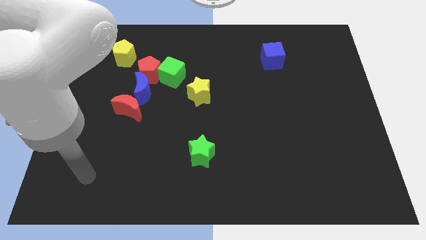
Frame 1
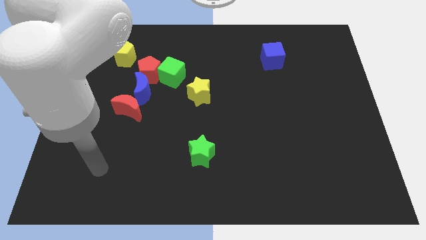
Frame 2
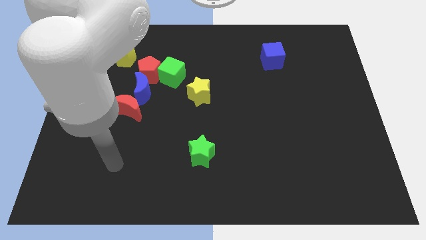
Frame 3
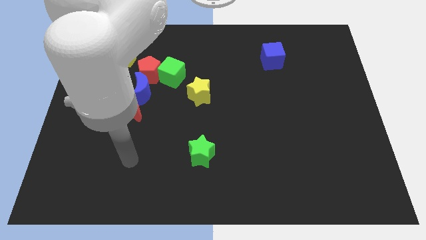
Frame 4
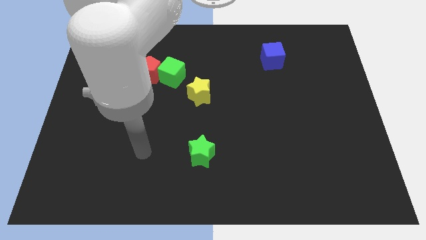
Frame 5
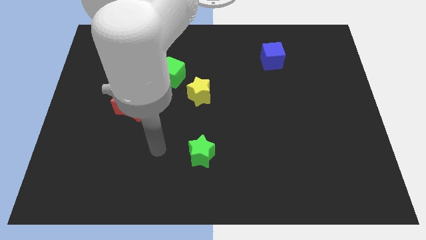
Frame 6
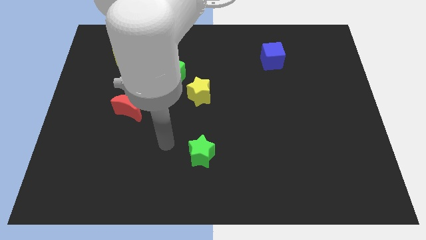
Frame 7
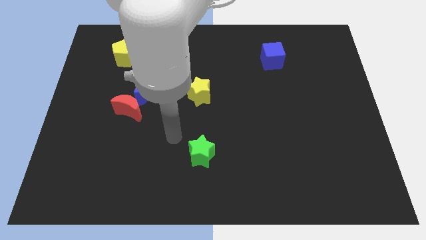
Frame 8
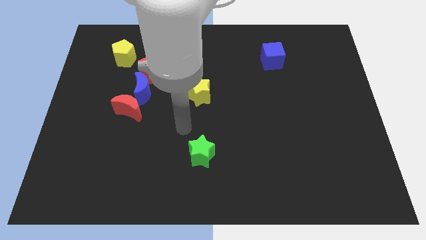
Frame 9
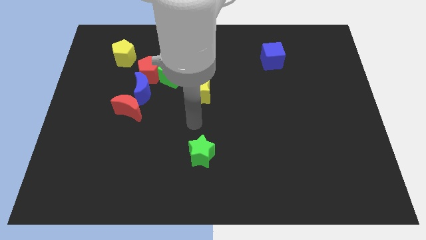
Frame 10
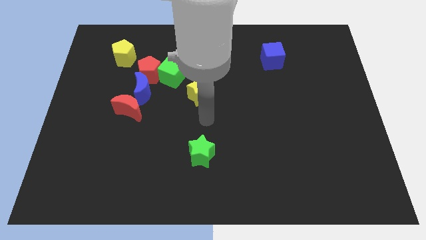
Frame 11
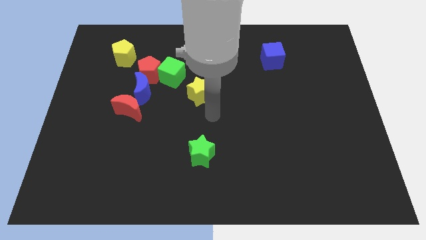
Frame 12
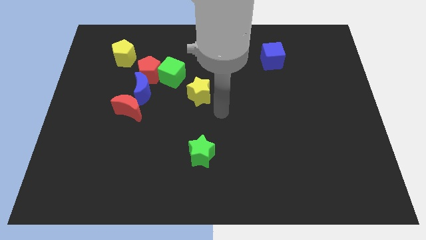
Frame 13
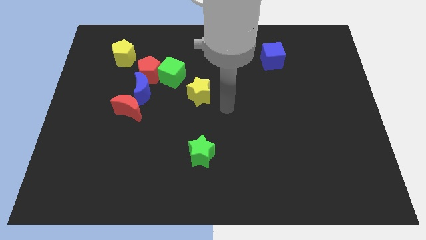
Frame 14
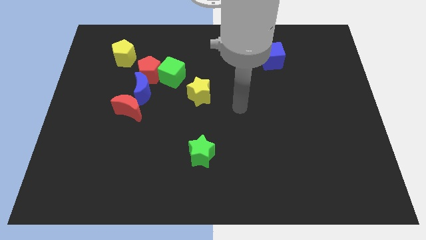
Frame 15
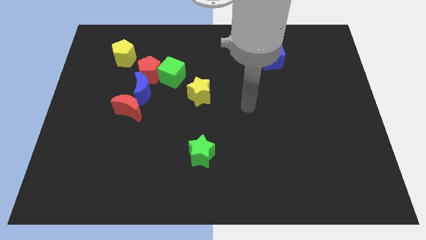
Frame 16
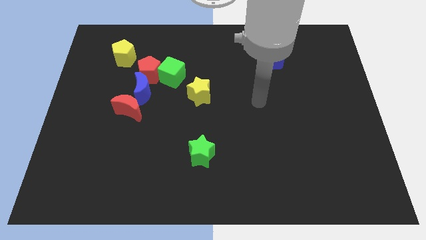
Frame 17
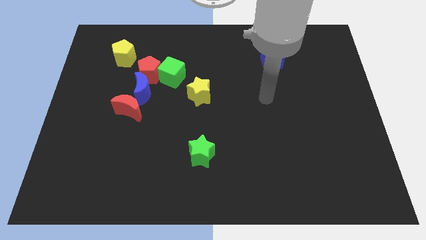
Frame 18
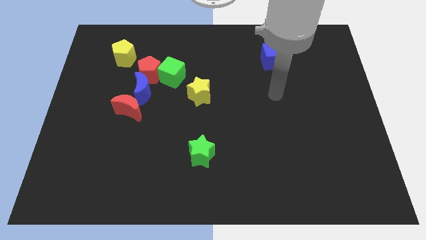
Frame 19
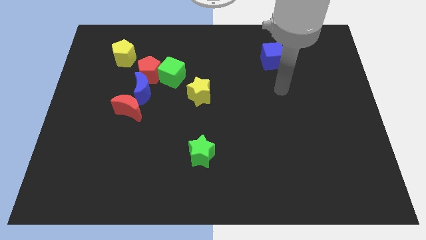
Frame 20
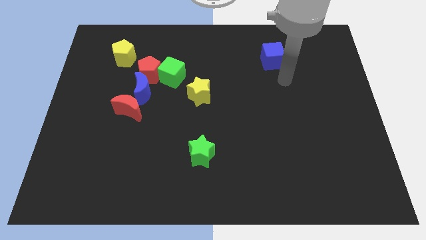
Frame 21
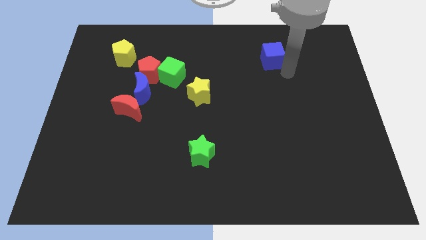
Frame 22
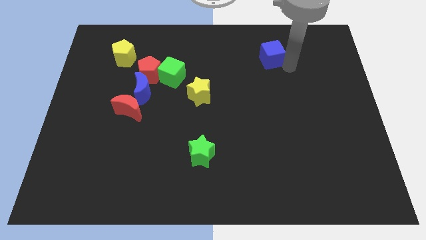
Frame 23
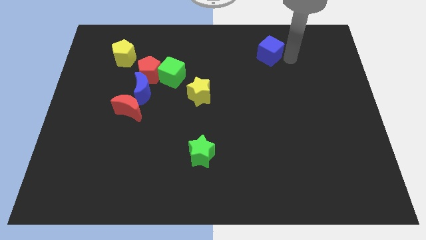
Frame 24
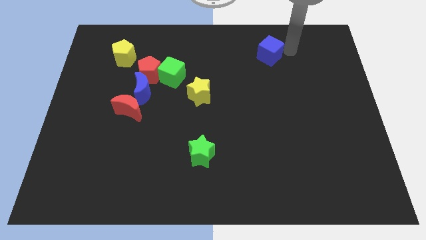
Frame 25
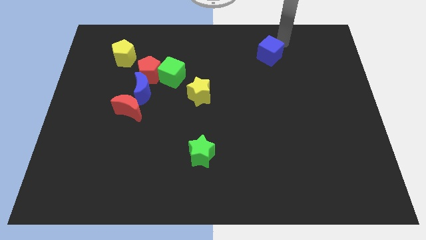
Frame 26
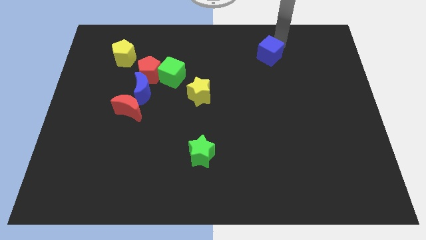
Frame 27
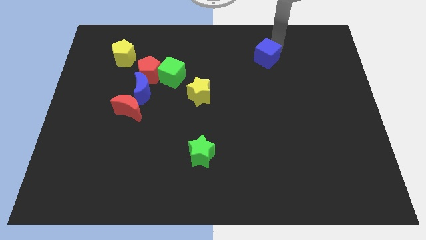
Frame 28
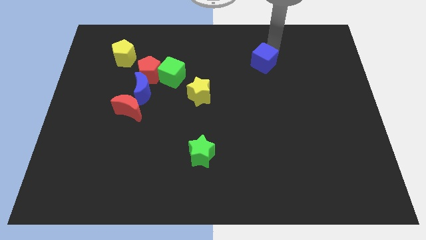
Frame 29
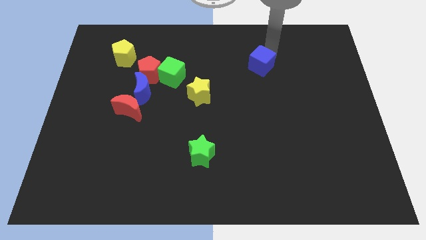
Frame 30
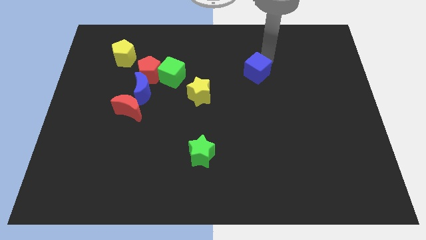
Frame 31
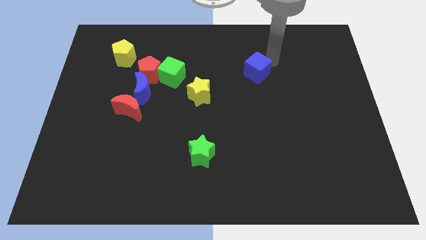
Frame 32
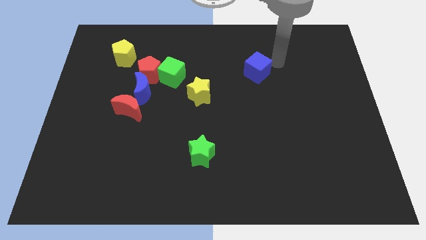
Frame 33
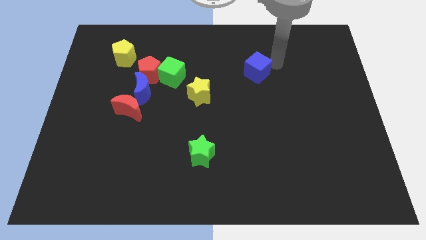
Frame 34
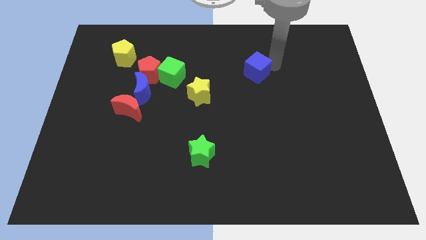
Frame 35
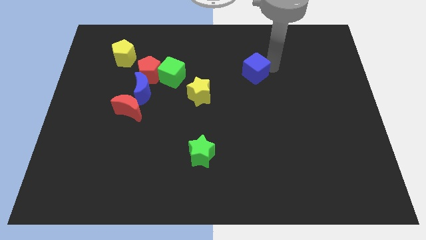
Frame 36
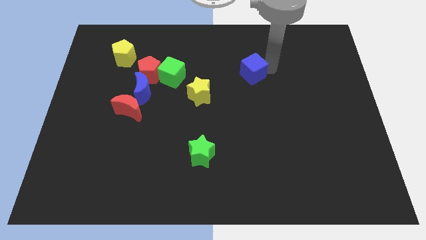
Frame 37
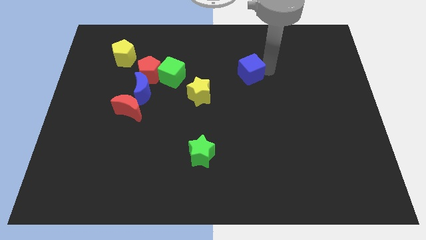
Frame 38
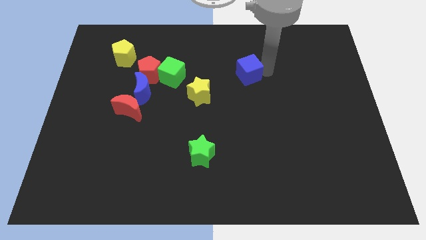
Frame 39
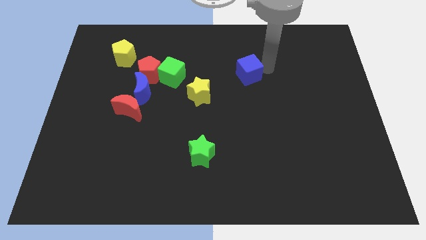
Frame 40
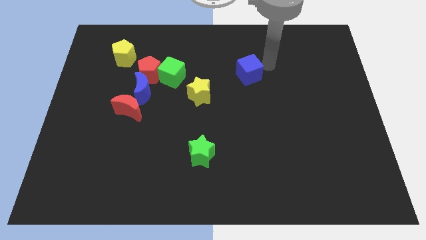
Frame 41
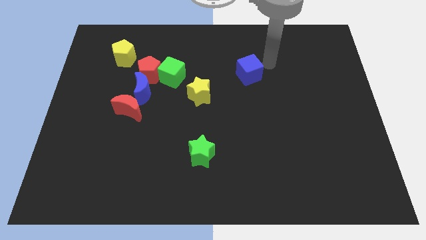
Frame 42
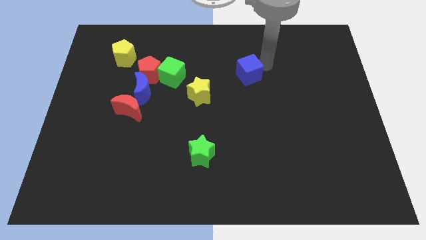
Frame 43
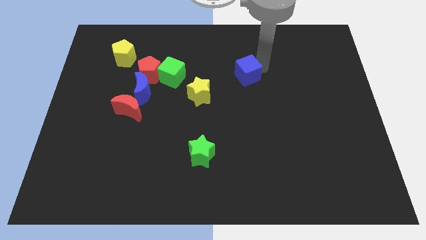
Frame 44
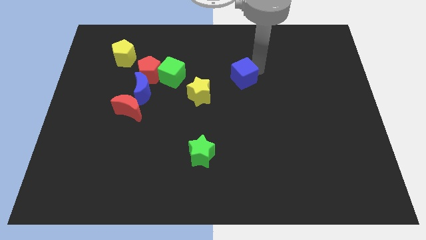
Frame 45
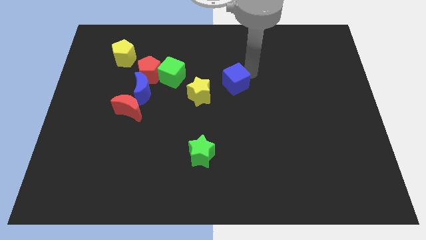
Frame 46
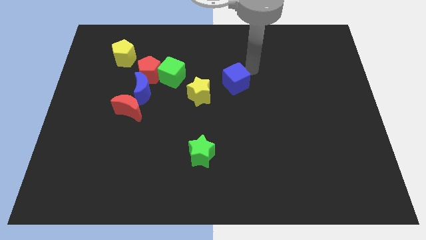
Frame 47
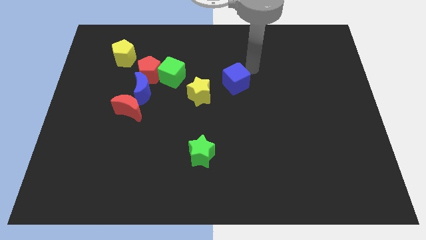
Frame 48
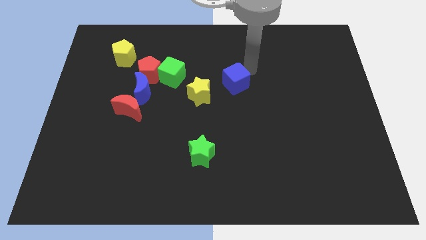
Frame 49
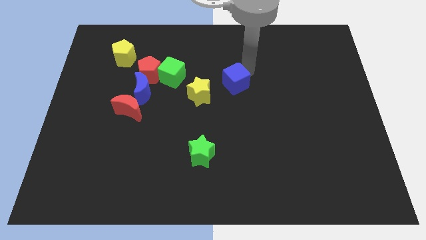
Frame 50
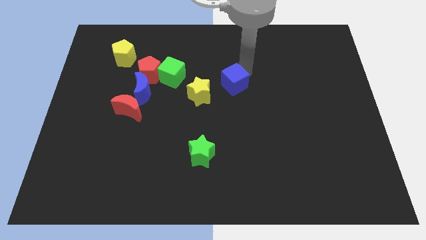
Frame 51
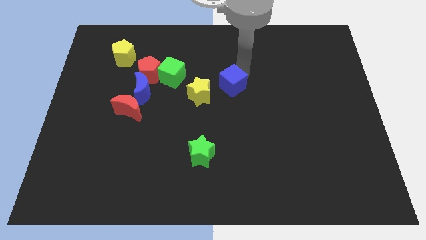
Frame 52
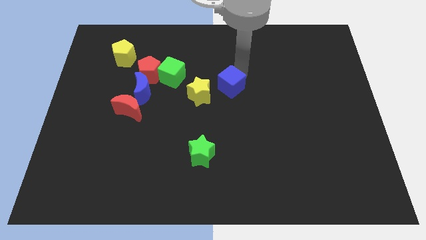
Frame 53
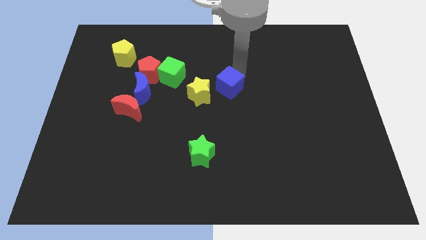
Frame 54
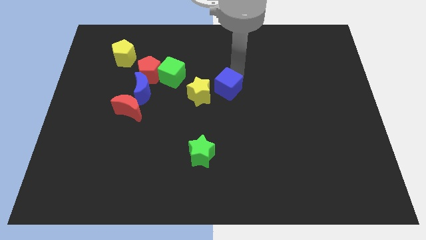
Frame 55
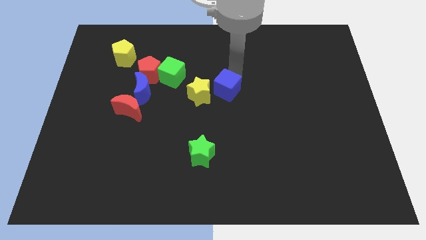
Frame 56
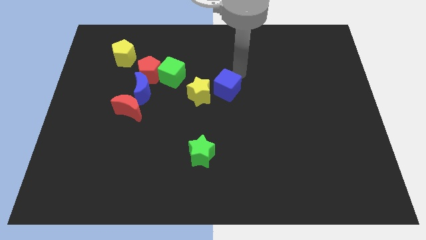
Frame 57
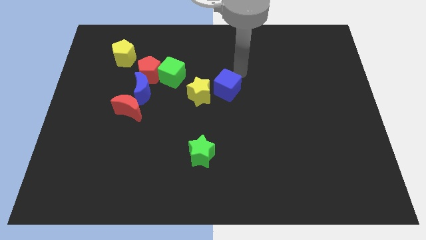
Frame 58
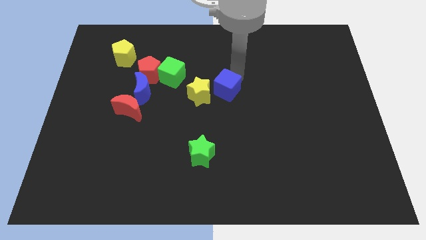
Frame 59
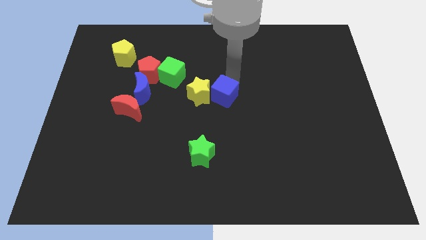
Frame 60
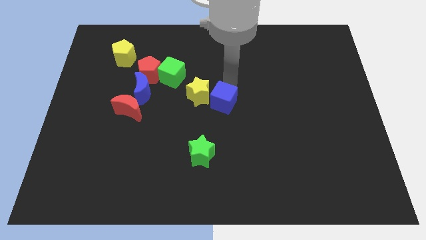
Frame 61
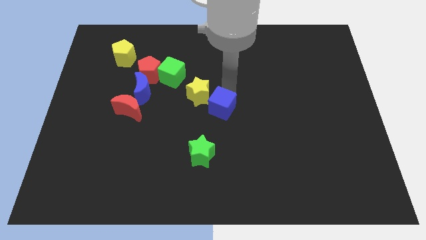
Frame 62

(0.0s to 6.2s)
push the blue cube down and to the left

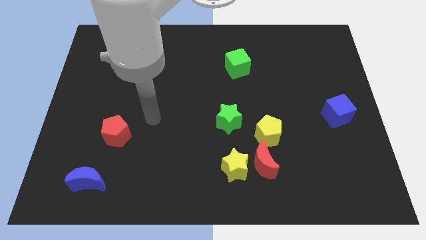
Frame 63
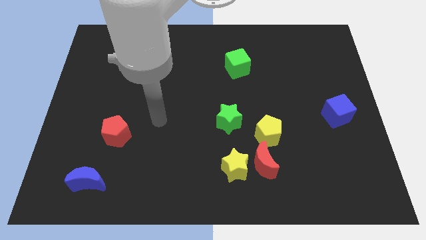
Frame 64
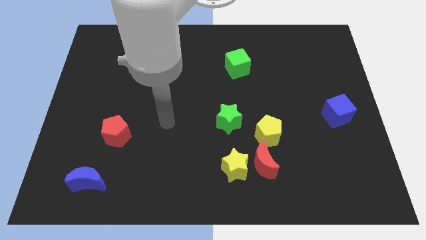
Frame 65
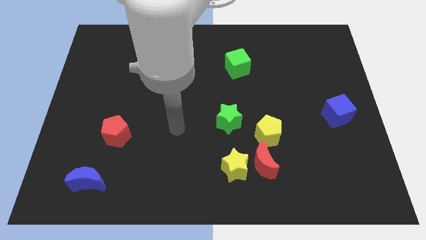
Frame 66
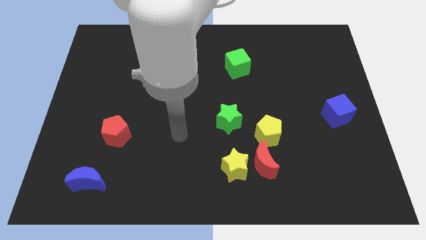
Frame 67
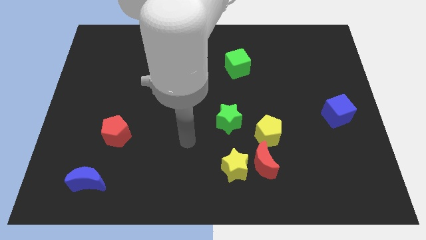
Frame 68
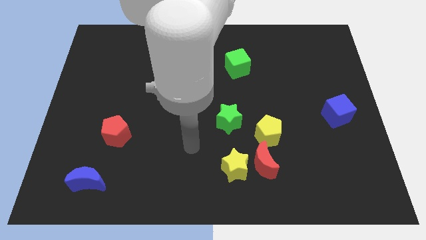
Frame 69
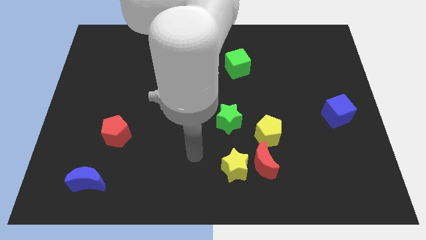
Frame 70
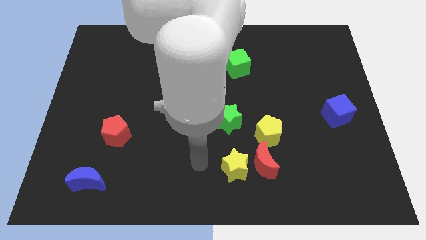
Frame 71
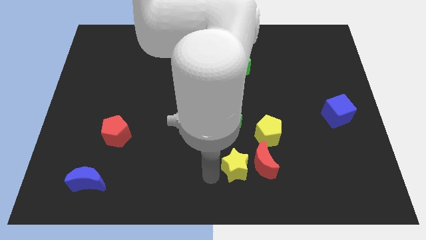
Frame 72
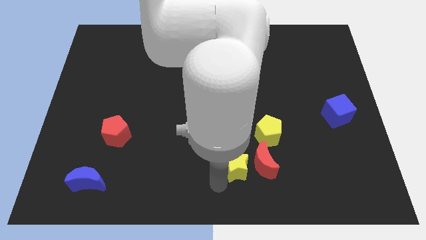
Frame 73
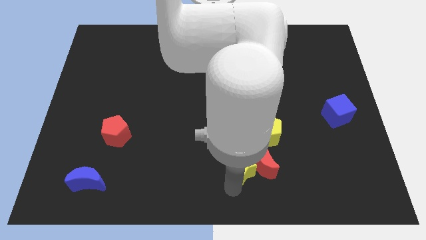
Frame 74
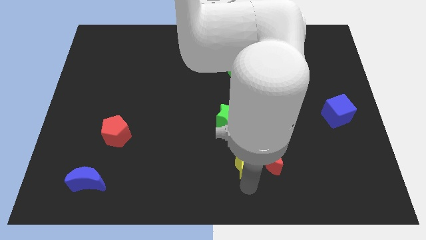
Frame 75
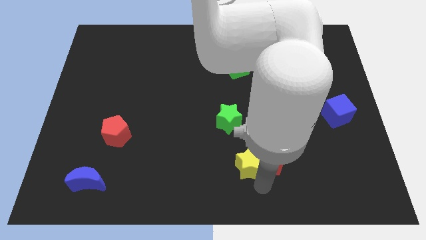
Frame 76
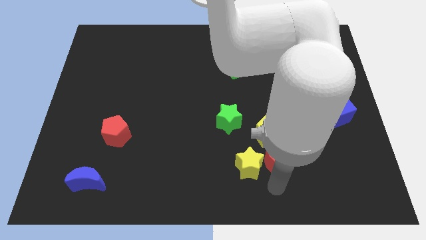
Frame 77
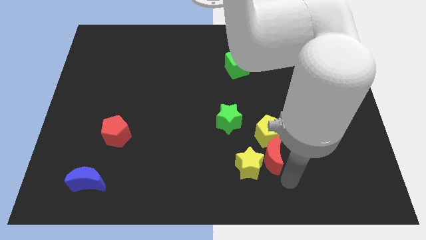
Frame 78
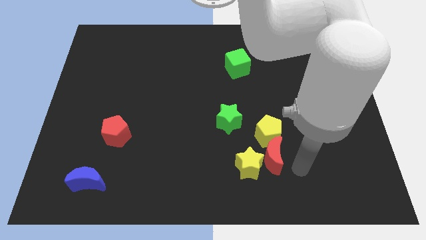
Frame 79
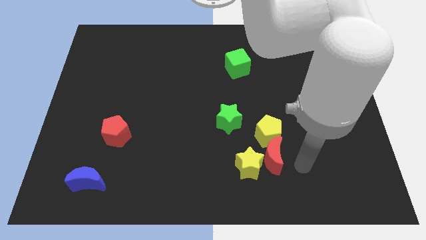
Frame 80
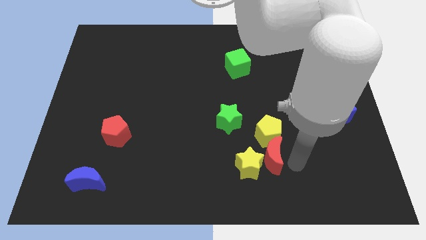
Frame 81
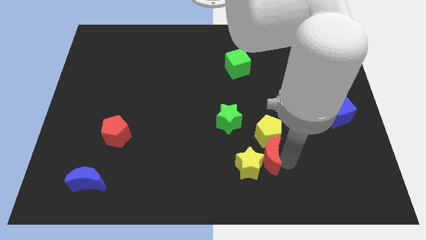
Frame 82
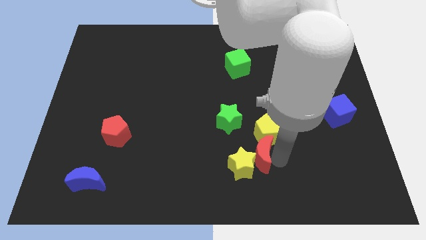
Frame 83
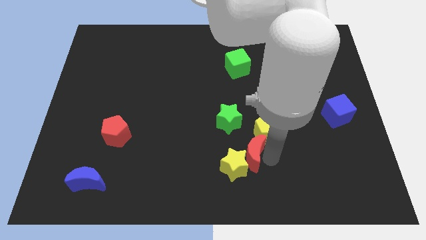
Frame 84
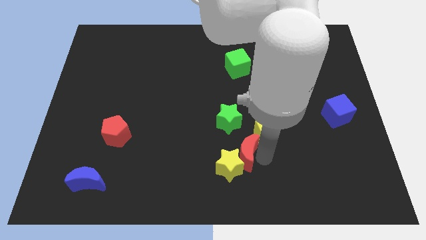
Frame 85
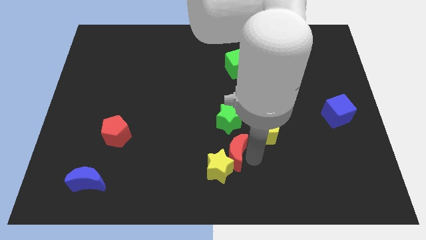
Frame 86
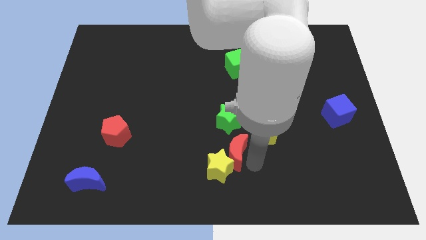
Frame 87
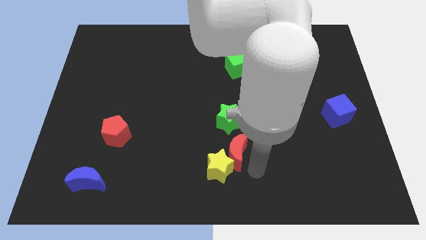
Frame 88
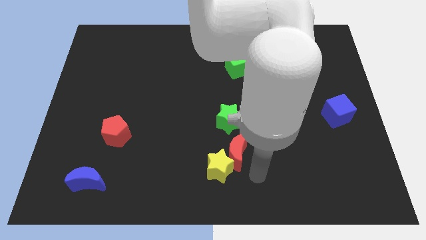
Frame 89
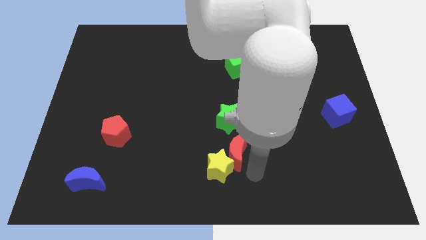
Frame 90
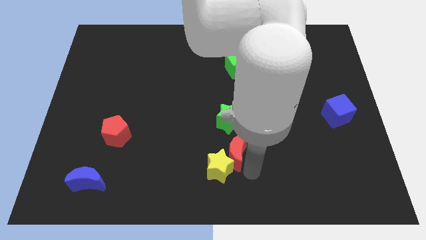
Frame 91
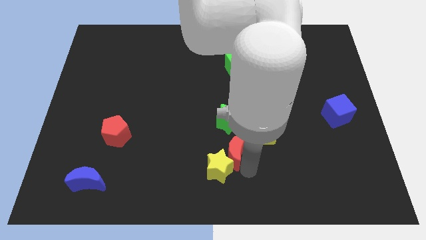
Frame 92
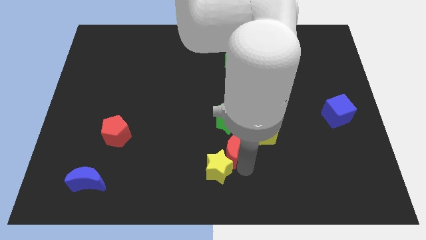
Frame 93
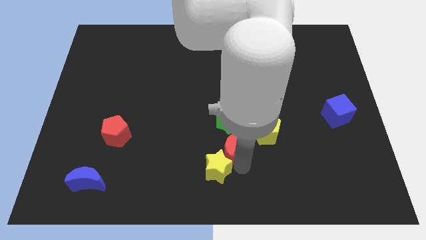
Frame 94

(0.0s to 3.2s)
move the red moon up and then to the left somewhat
